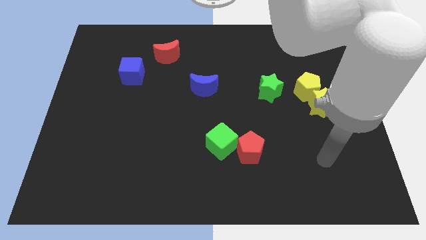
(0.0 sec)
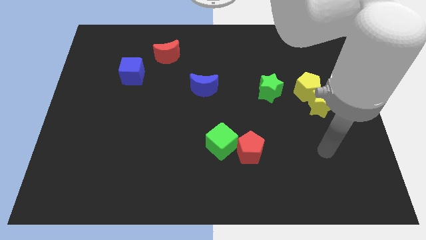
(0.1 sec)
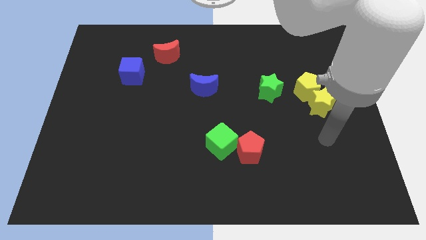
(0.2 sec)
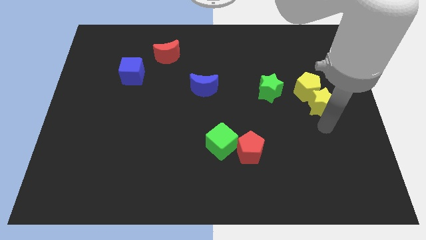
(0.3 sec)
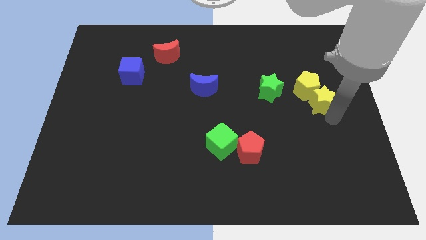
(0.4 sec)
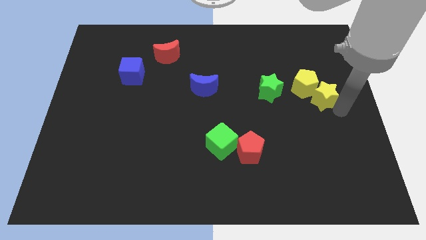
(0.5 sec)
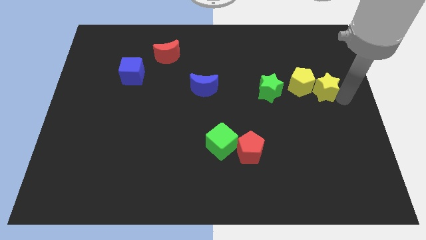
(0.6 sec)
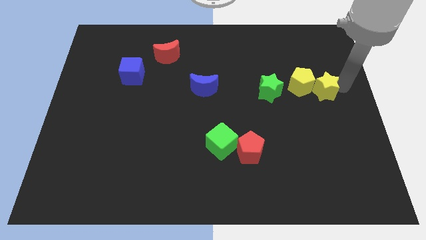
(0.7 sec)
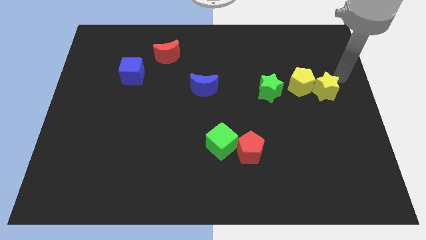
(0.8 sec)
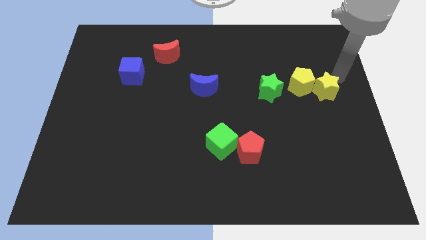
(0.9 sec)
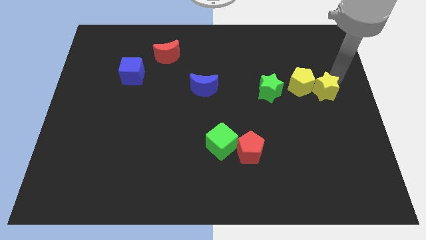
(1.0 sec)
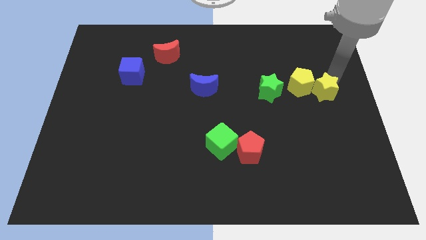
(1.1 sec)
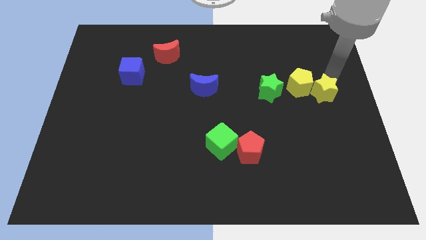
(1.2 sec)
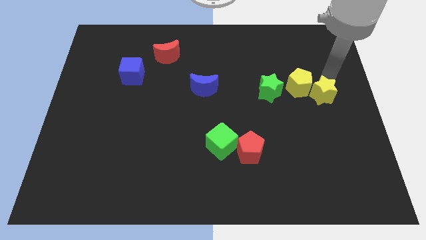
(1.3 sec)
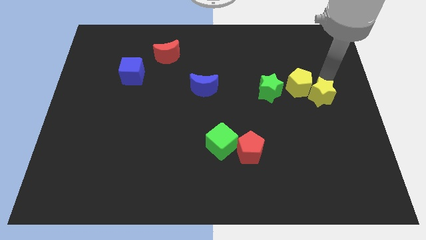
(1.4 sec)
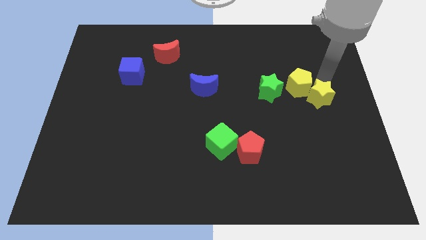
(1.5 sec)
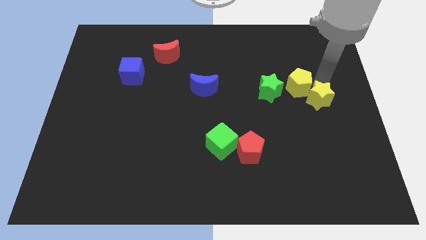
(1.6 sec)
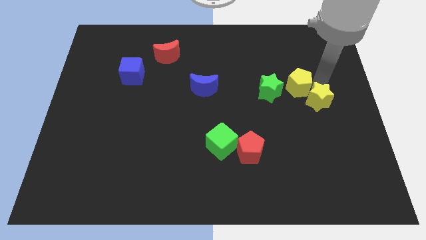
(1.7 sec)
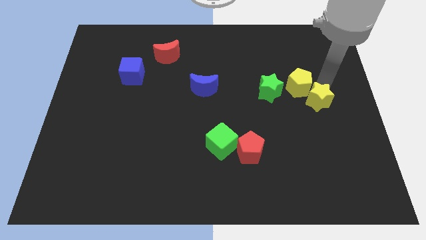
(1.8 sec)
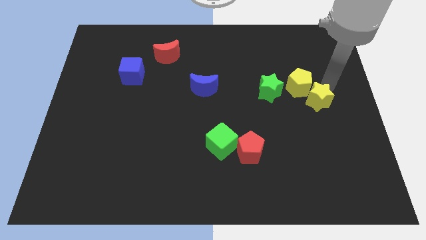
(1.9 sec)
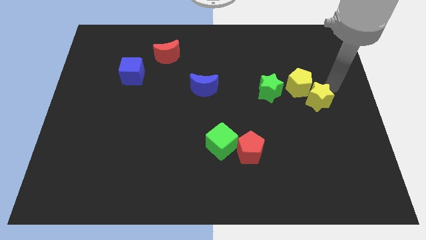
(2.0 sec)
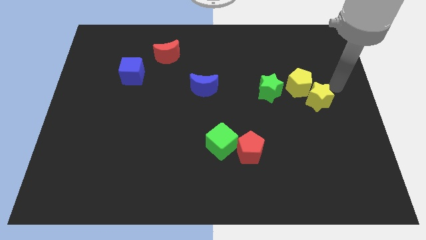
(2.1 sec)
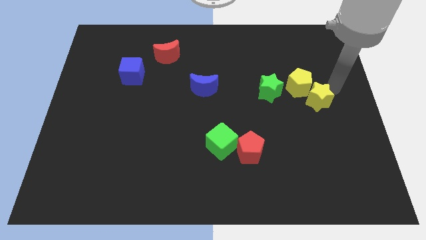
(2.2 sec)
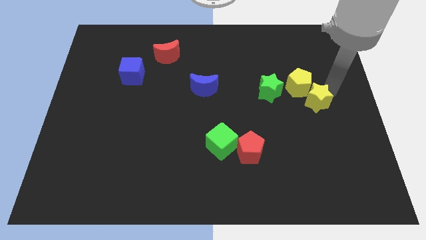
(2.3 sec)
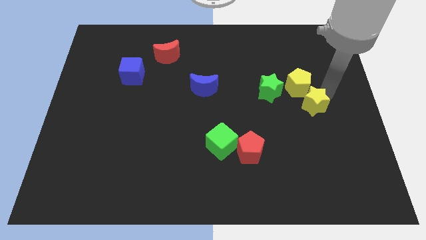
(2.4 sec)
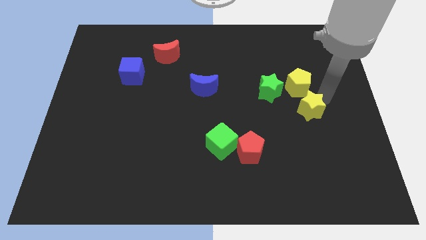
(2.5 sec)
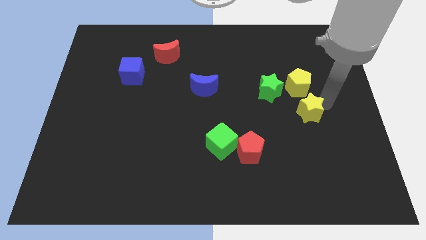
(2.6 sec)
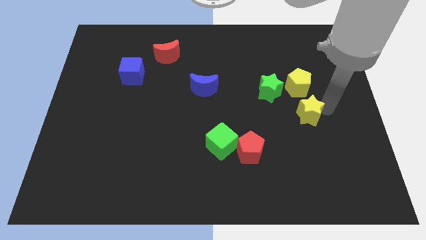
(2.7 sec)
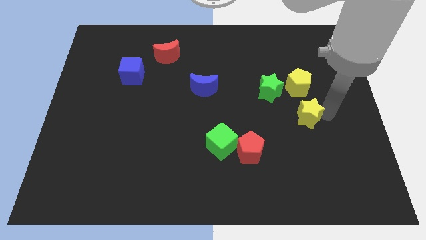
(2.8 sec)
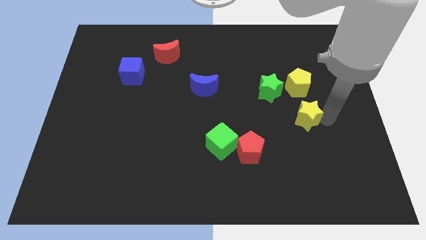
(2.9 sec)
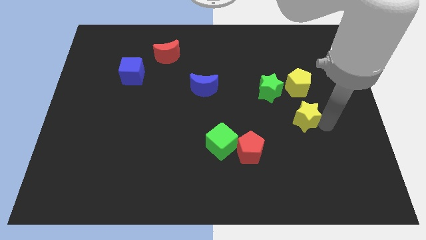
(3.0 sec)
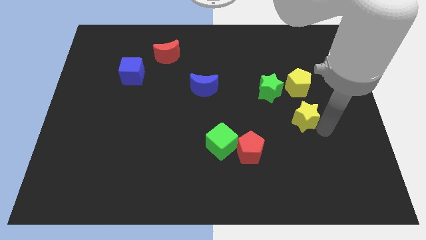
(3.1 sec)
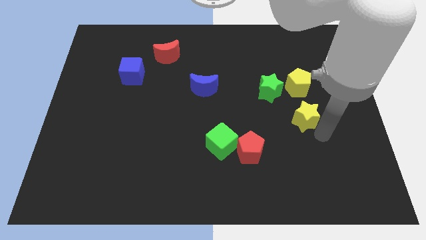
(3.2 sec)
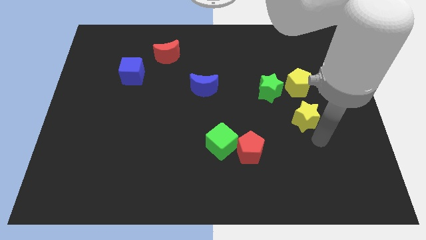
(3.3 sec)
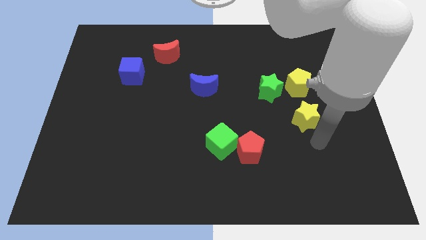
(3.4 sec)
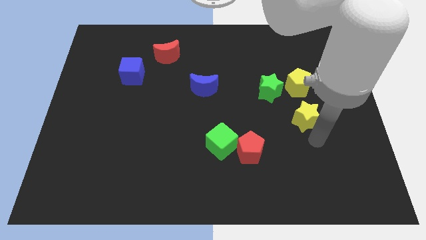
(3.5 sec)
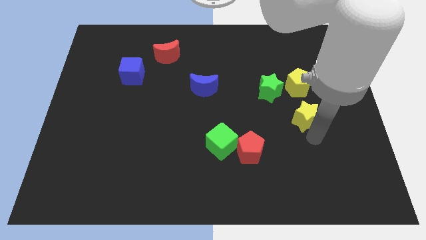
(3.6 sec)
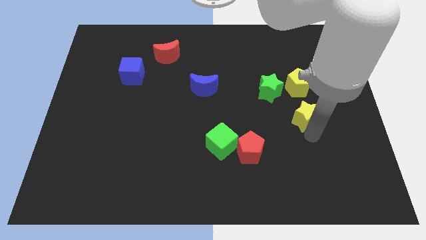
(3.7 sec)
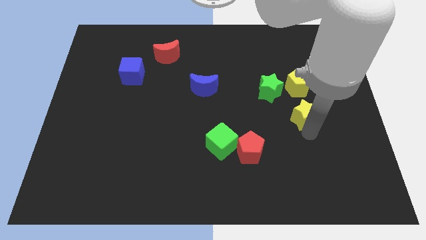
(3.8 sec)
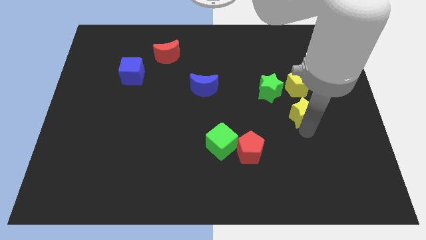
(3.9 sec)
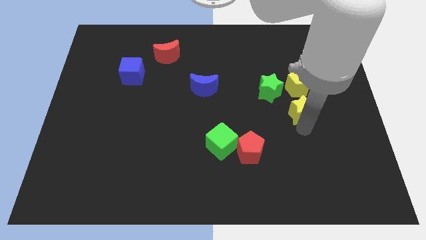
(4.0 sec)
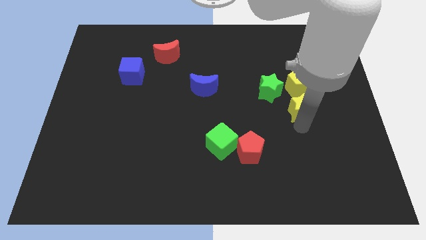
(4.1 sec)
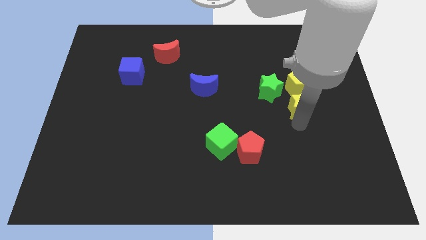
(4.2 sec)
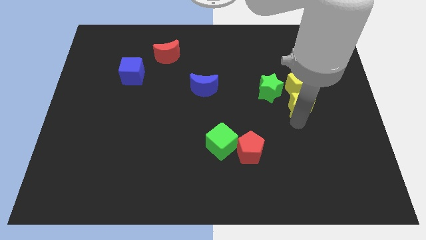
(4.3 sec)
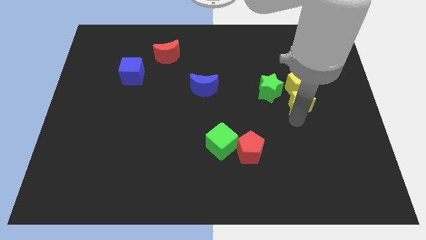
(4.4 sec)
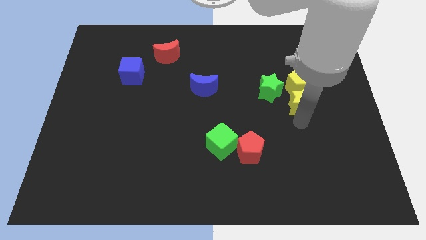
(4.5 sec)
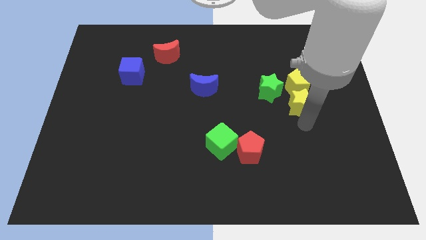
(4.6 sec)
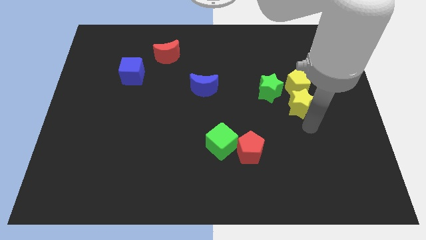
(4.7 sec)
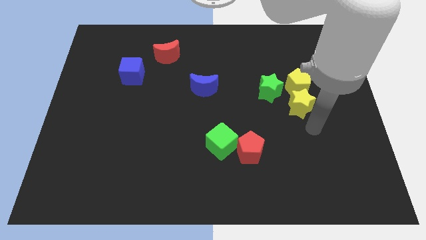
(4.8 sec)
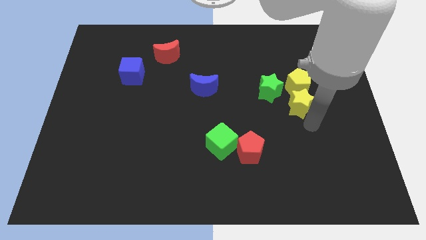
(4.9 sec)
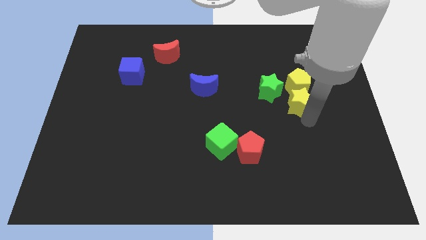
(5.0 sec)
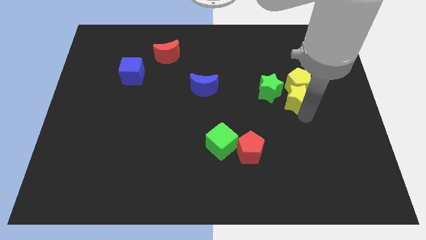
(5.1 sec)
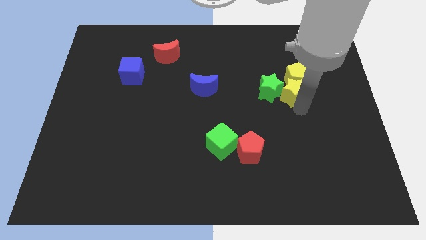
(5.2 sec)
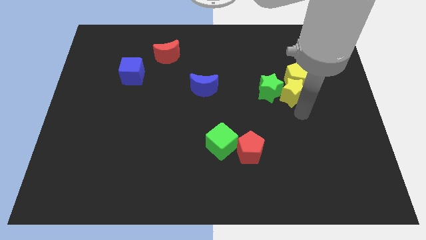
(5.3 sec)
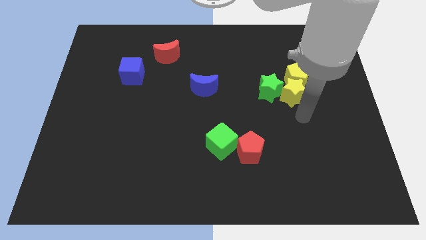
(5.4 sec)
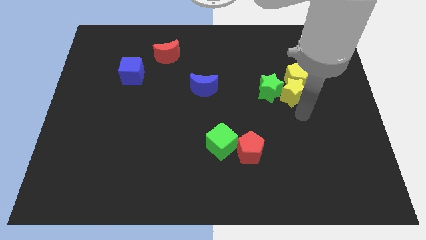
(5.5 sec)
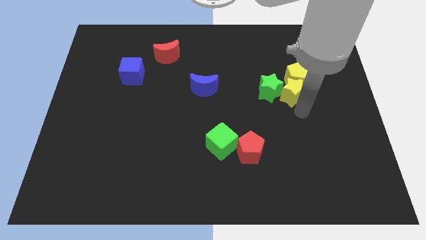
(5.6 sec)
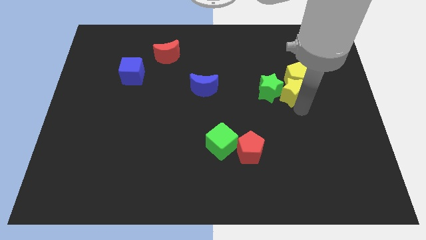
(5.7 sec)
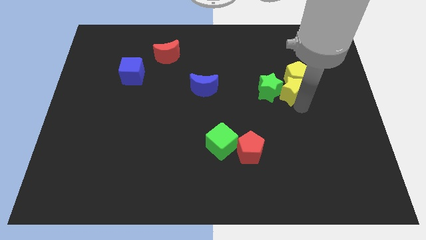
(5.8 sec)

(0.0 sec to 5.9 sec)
slightly move the yellow star diagonally upwards and to the left

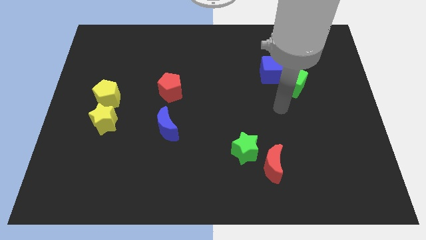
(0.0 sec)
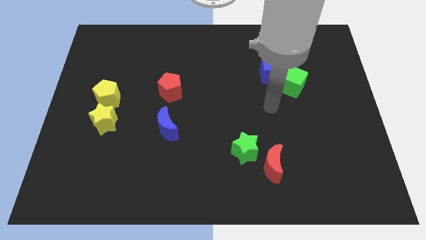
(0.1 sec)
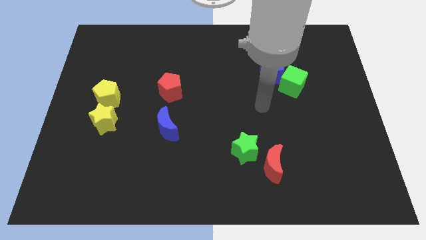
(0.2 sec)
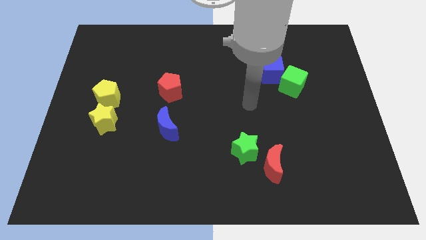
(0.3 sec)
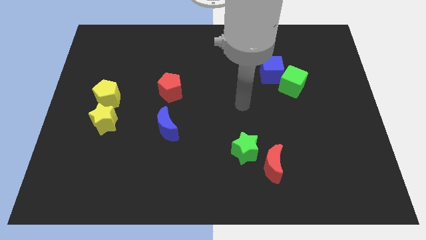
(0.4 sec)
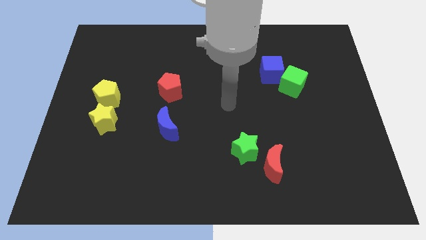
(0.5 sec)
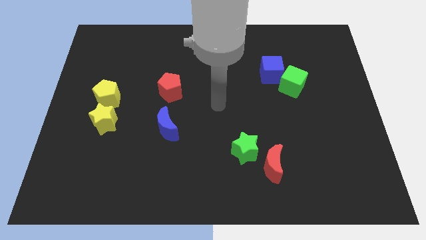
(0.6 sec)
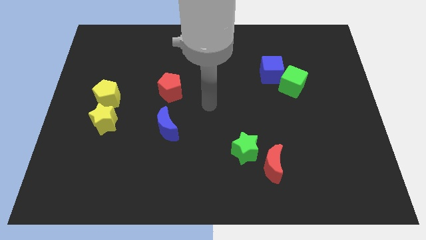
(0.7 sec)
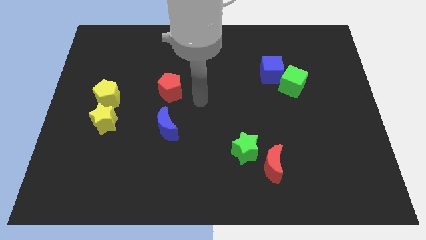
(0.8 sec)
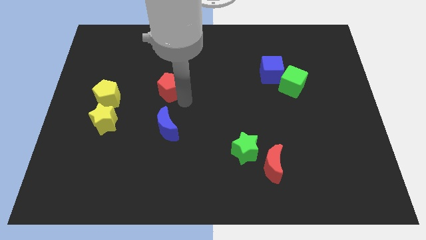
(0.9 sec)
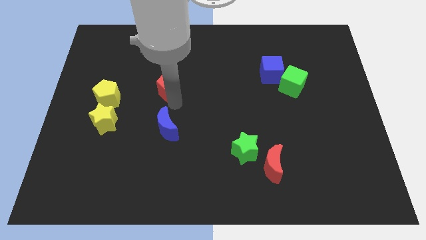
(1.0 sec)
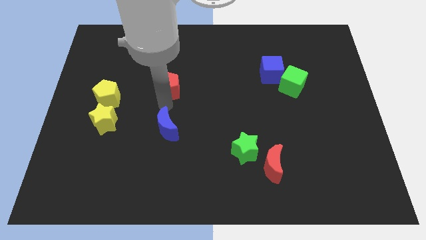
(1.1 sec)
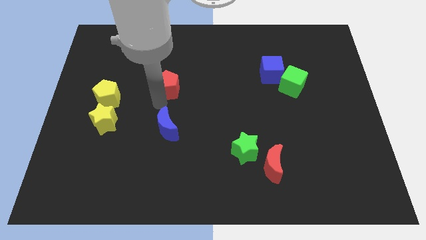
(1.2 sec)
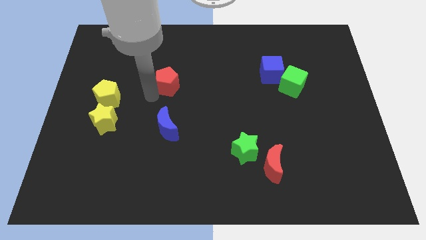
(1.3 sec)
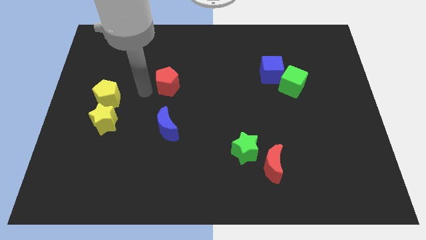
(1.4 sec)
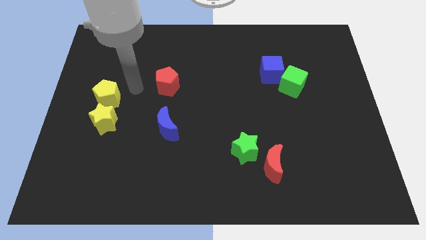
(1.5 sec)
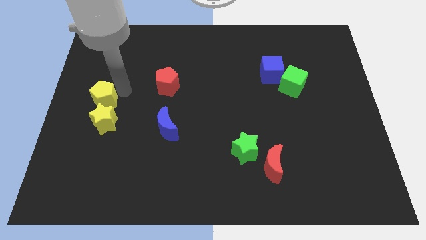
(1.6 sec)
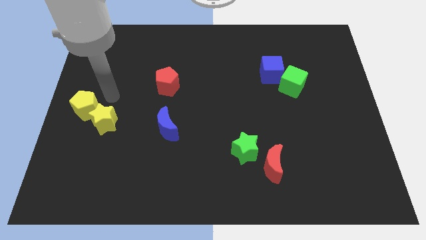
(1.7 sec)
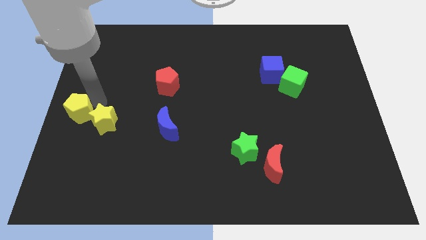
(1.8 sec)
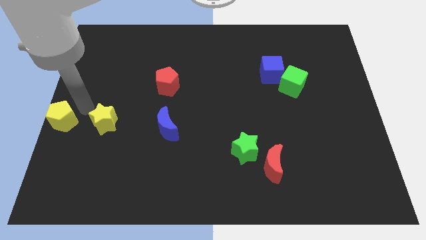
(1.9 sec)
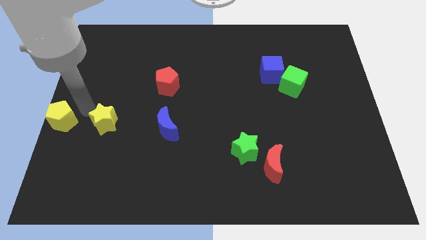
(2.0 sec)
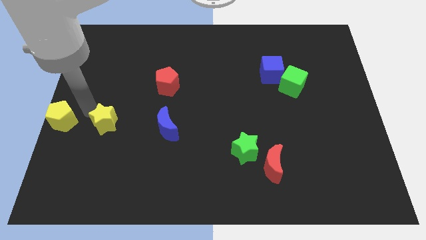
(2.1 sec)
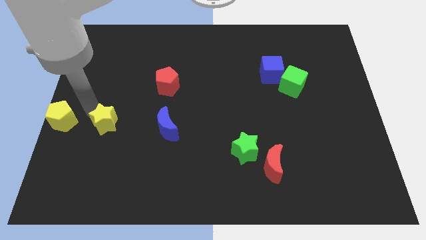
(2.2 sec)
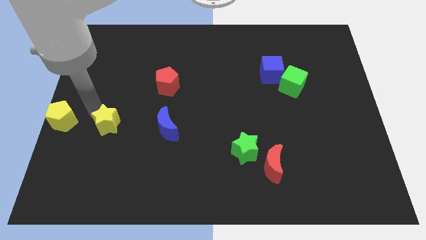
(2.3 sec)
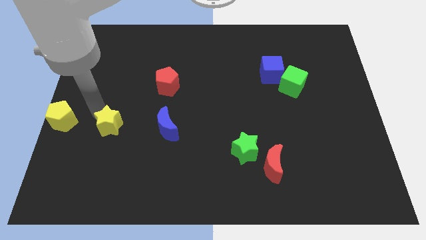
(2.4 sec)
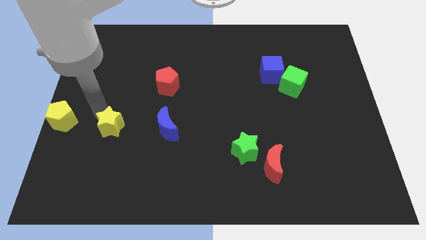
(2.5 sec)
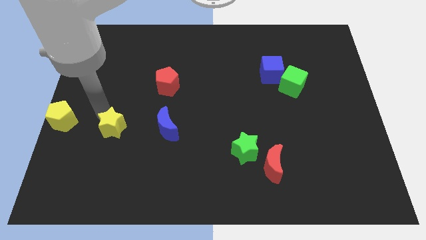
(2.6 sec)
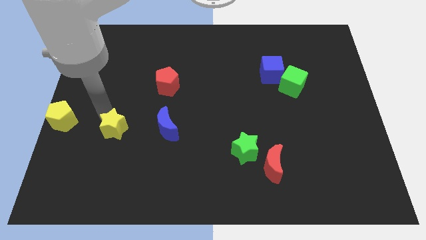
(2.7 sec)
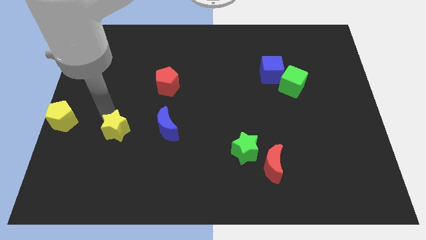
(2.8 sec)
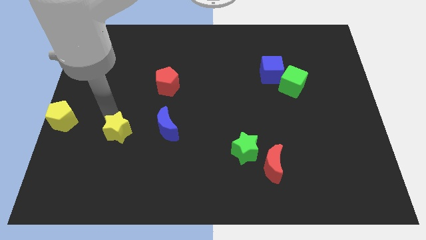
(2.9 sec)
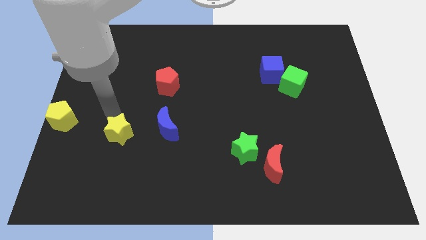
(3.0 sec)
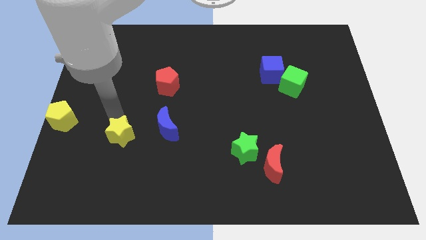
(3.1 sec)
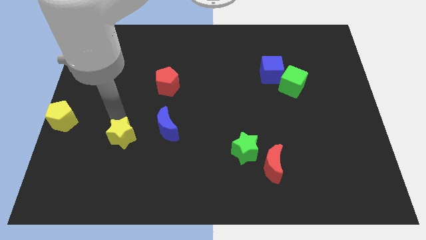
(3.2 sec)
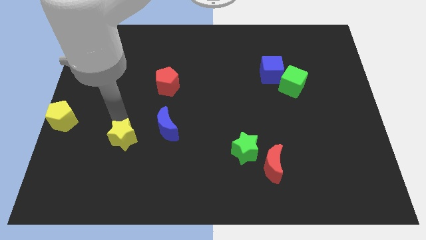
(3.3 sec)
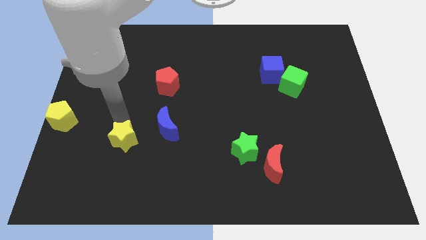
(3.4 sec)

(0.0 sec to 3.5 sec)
move the yellow star downwards and to the right diagonally a little
